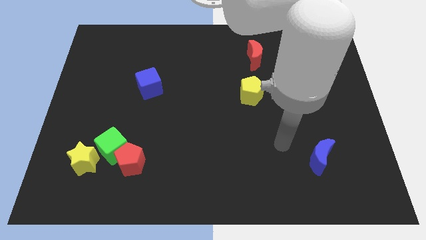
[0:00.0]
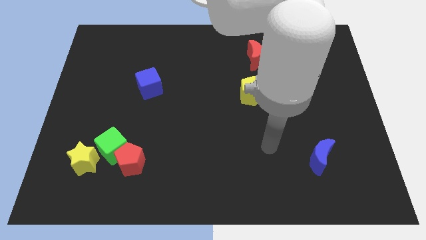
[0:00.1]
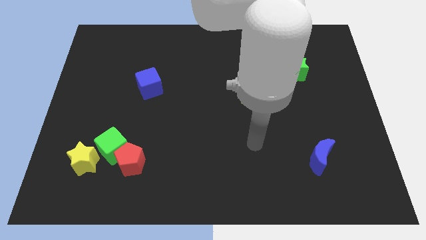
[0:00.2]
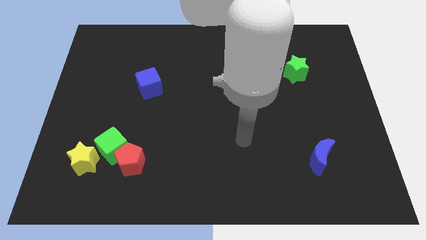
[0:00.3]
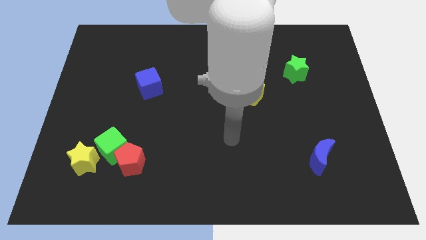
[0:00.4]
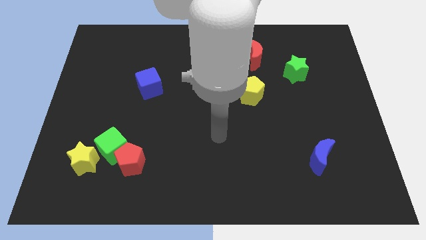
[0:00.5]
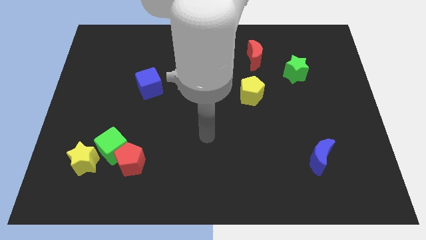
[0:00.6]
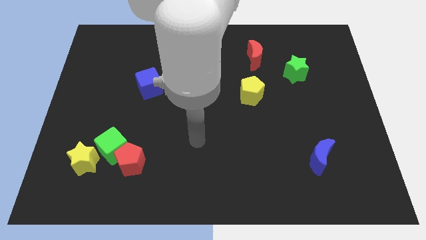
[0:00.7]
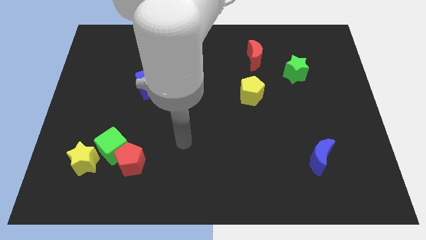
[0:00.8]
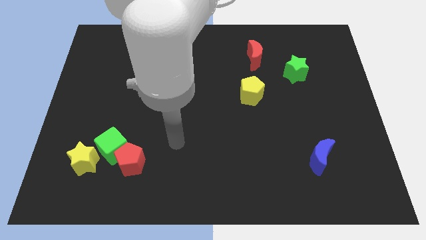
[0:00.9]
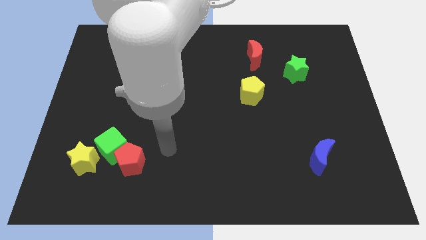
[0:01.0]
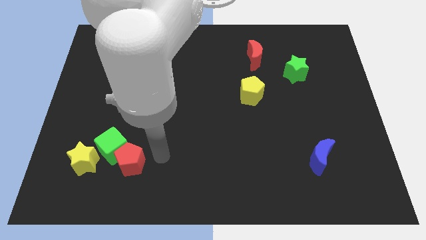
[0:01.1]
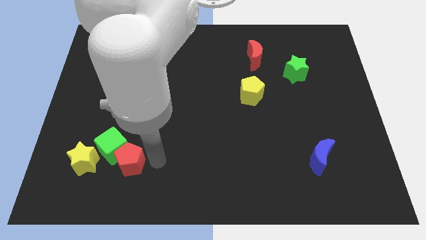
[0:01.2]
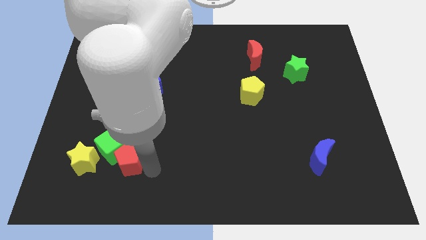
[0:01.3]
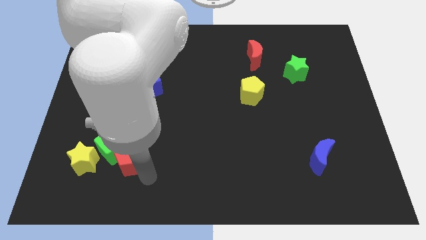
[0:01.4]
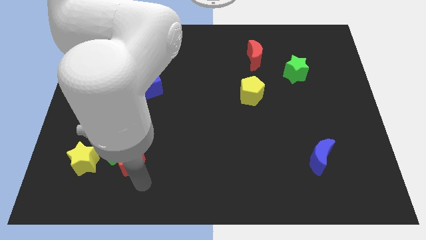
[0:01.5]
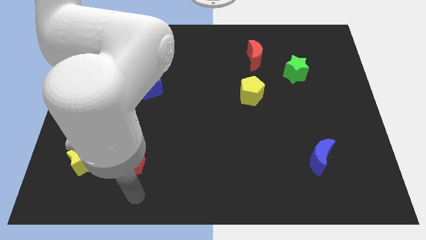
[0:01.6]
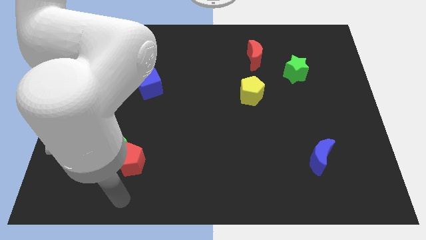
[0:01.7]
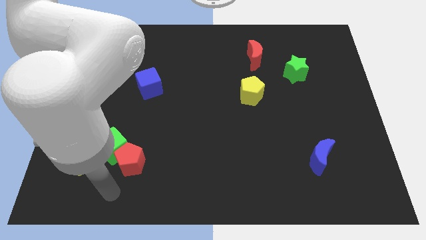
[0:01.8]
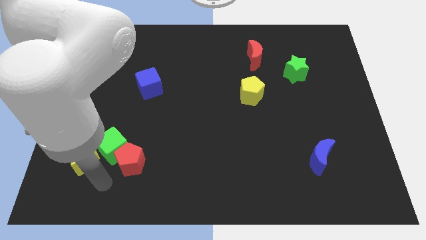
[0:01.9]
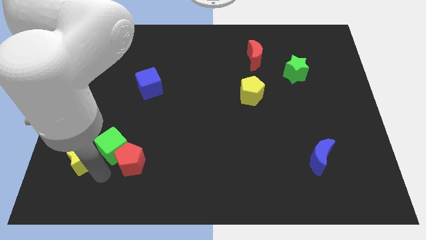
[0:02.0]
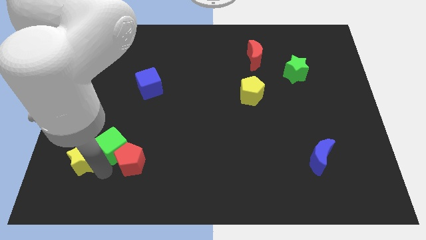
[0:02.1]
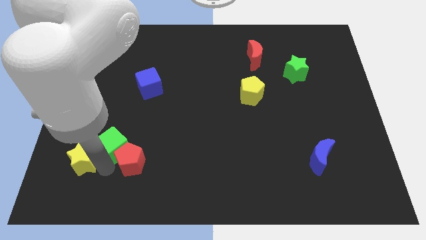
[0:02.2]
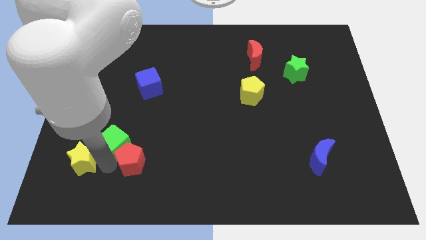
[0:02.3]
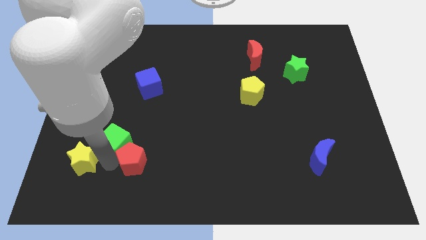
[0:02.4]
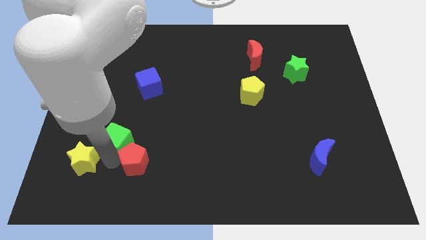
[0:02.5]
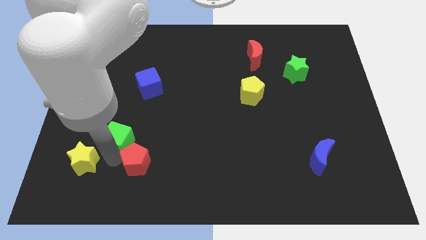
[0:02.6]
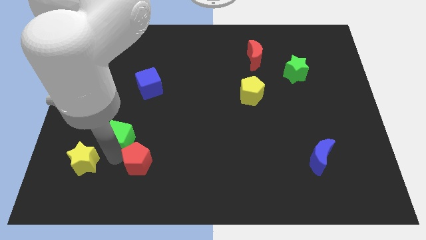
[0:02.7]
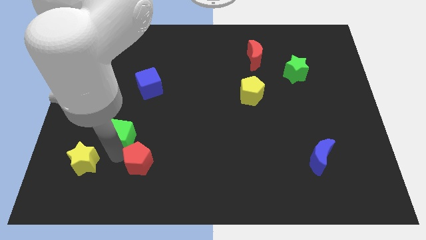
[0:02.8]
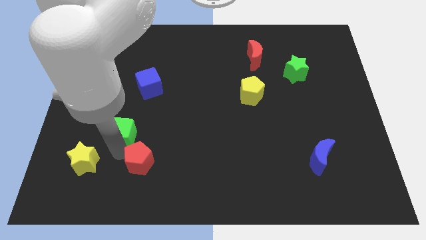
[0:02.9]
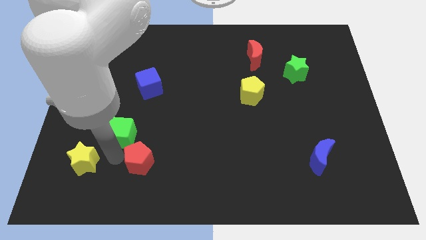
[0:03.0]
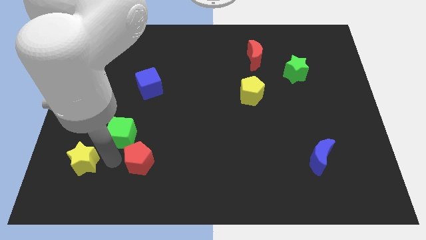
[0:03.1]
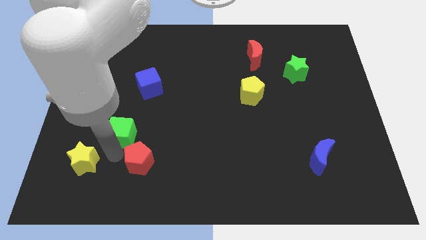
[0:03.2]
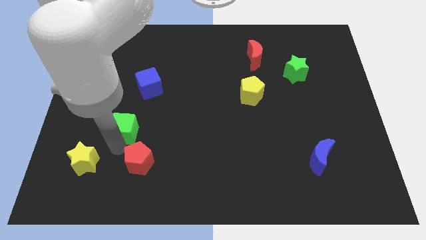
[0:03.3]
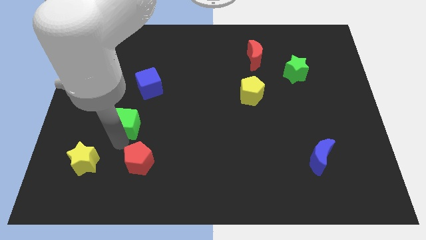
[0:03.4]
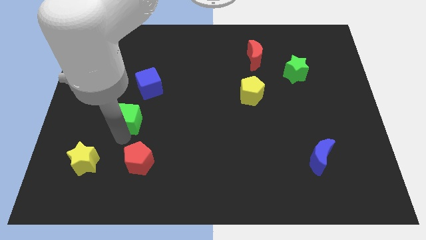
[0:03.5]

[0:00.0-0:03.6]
separate the green cube from the red pentagon and yellow star

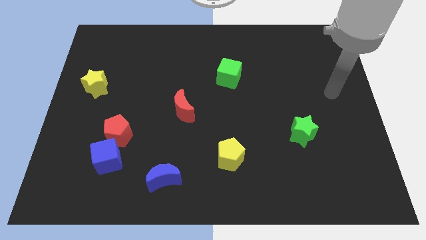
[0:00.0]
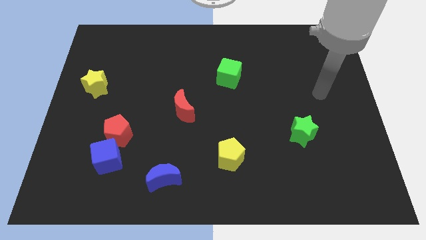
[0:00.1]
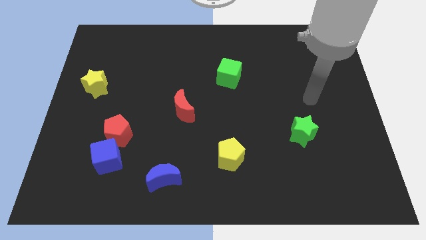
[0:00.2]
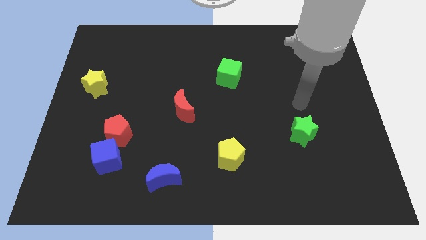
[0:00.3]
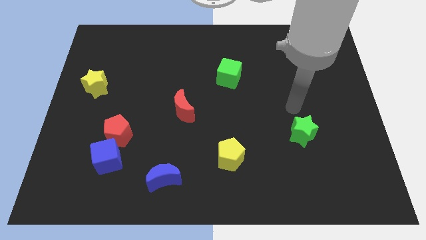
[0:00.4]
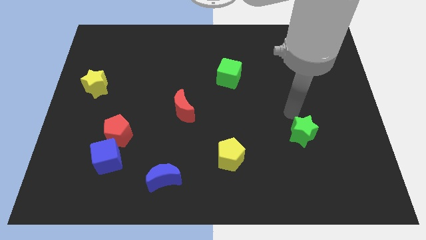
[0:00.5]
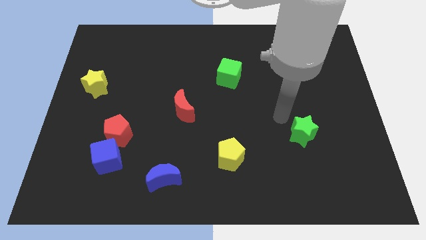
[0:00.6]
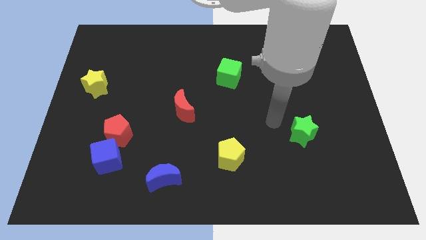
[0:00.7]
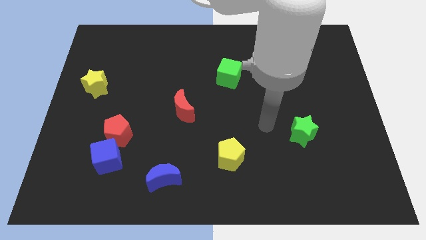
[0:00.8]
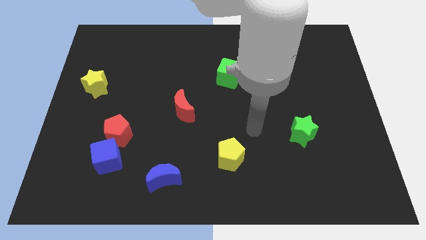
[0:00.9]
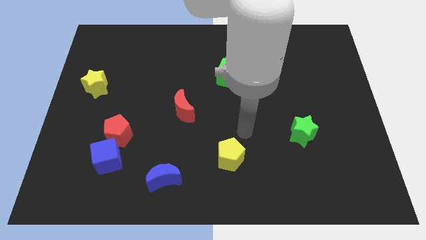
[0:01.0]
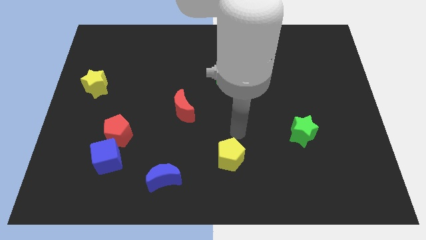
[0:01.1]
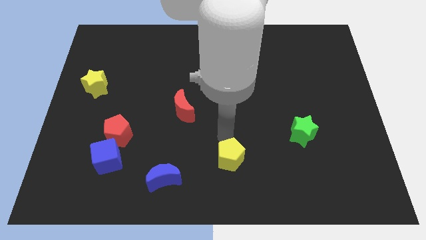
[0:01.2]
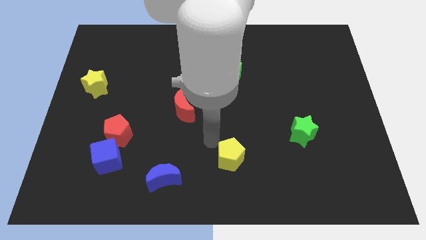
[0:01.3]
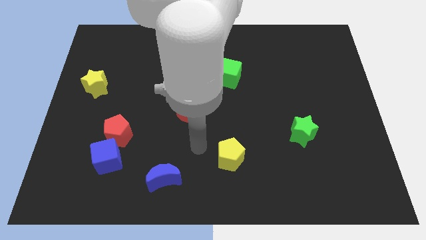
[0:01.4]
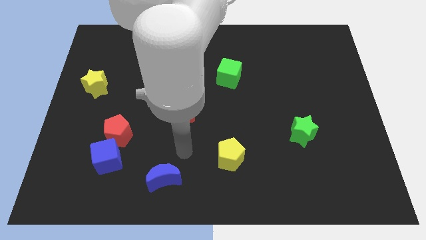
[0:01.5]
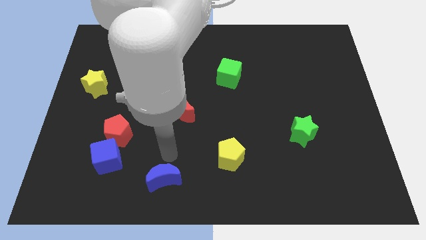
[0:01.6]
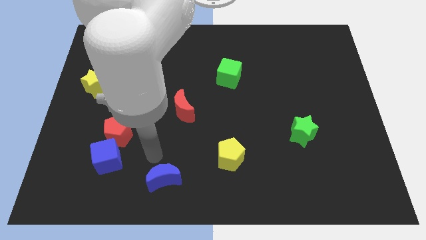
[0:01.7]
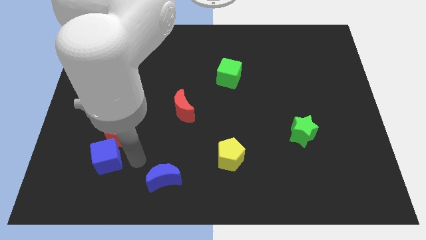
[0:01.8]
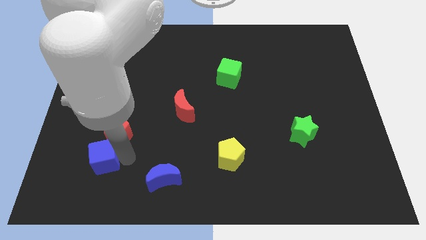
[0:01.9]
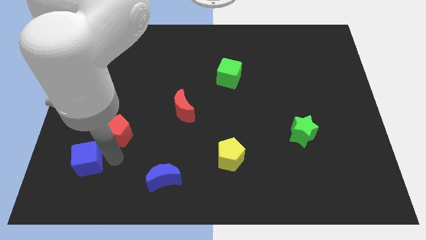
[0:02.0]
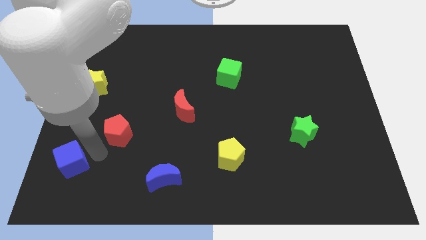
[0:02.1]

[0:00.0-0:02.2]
separate the red pentagon from the blue cube

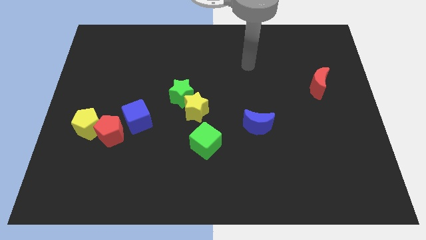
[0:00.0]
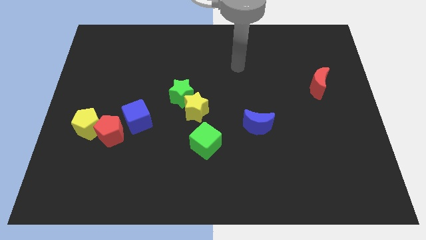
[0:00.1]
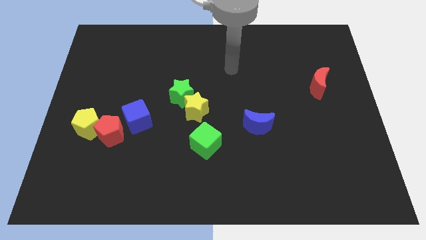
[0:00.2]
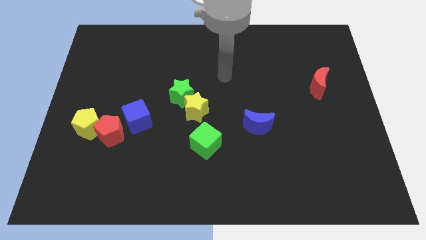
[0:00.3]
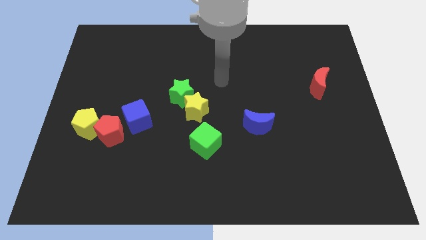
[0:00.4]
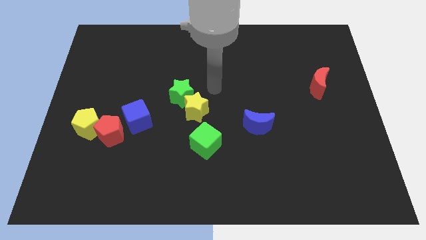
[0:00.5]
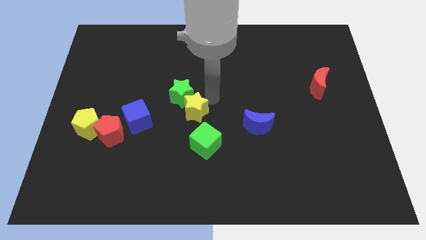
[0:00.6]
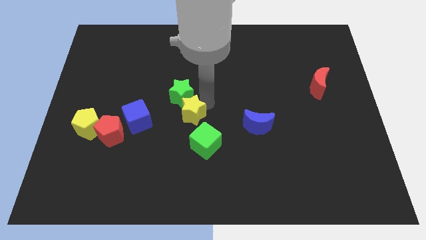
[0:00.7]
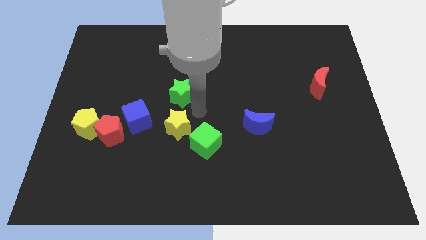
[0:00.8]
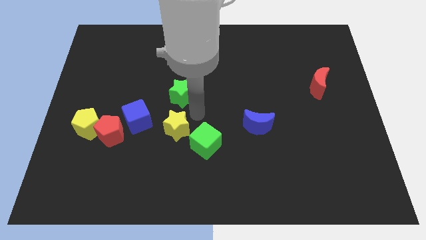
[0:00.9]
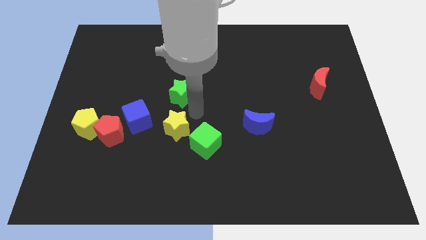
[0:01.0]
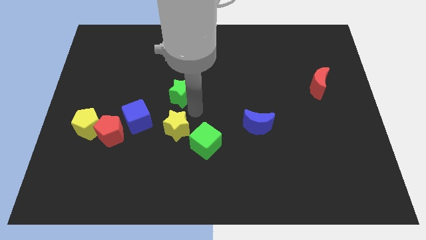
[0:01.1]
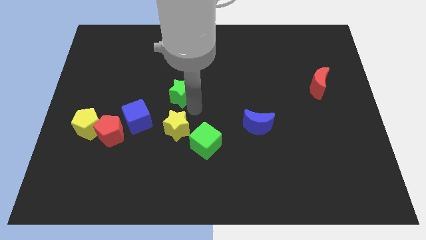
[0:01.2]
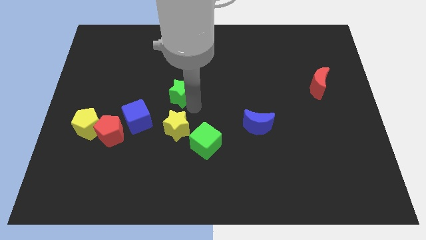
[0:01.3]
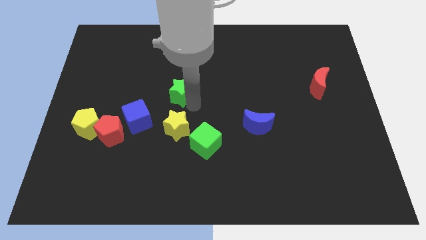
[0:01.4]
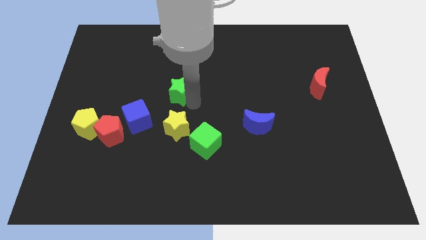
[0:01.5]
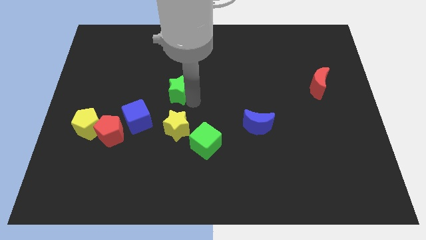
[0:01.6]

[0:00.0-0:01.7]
pull the green star apart from the yellow star

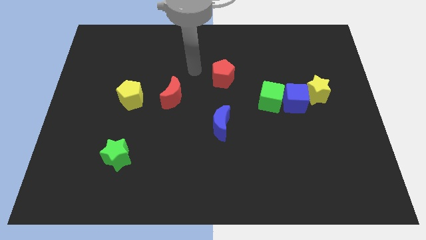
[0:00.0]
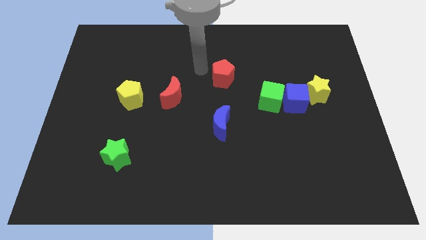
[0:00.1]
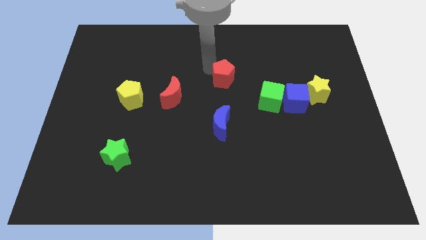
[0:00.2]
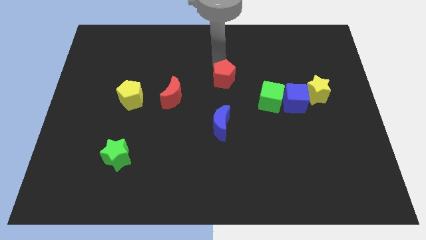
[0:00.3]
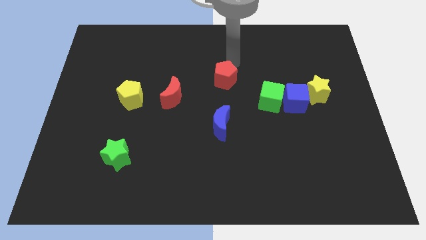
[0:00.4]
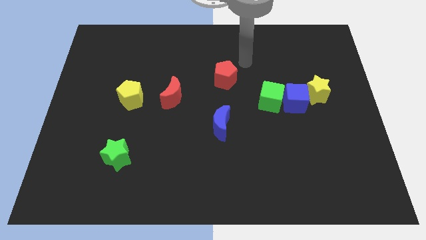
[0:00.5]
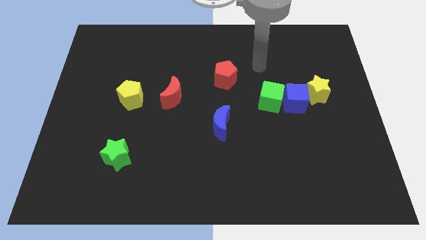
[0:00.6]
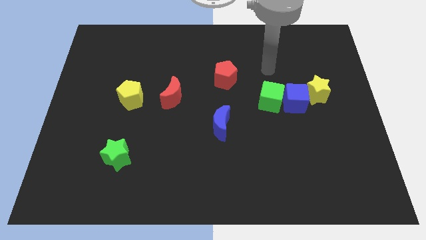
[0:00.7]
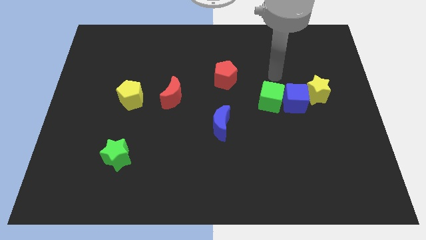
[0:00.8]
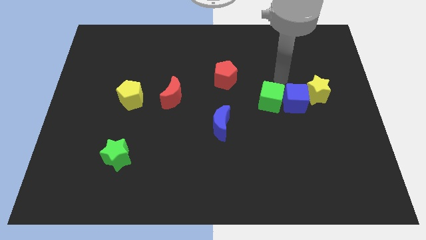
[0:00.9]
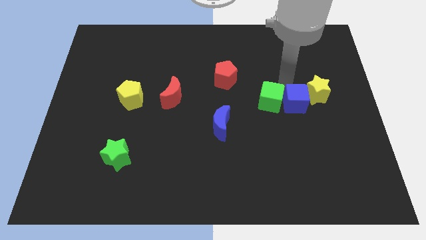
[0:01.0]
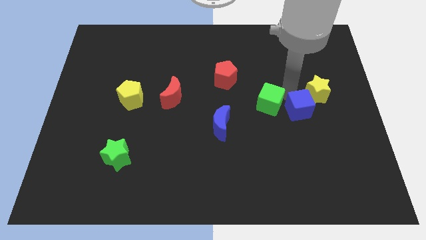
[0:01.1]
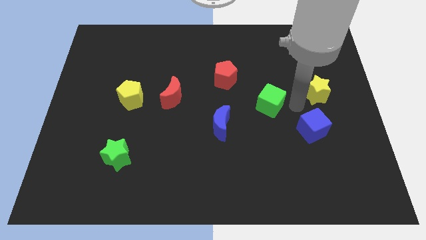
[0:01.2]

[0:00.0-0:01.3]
pull the green cube apart from the blue cube

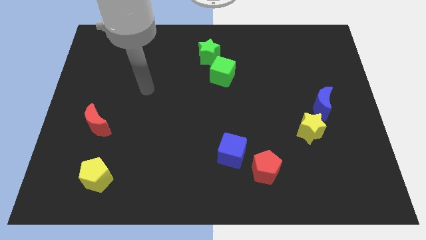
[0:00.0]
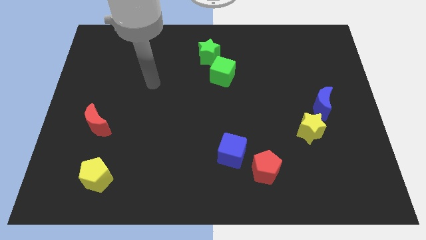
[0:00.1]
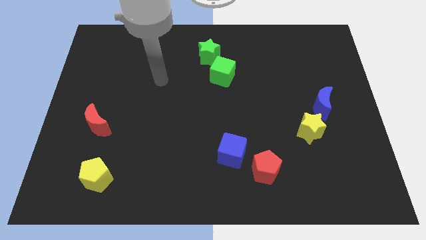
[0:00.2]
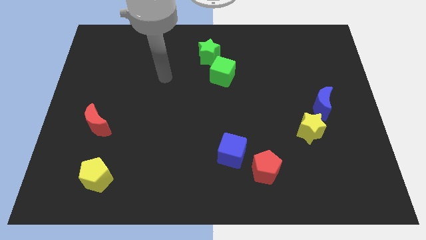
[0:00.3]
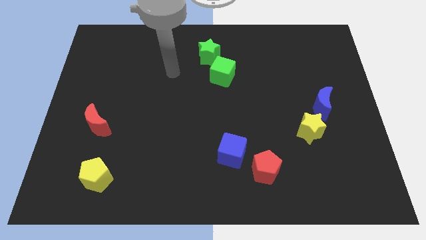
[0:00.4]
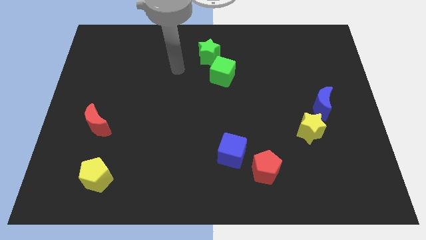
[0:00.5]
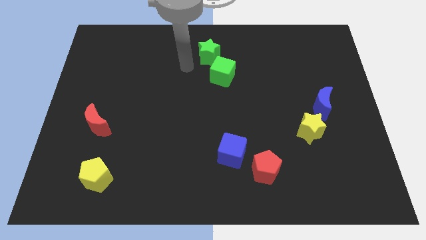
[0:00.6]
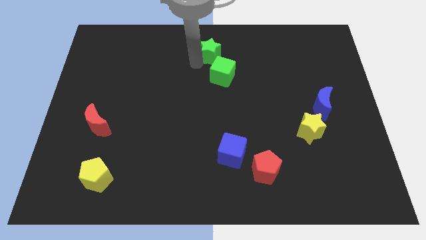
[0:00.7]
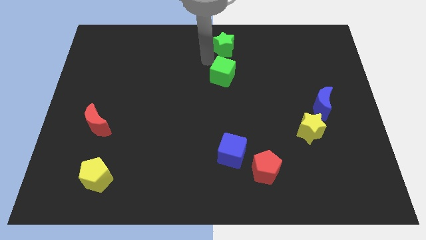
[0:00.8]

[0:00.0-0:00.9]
pull the green cube apart from the green star
